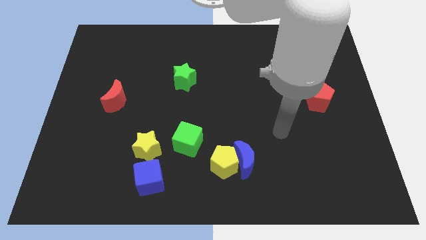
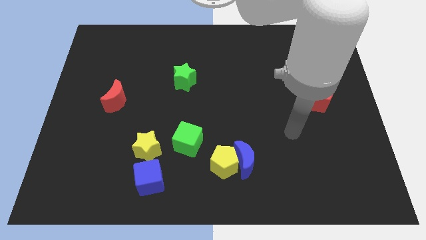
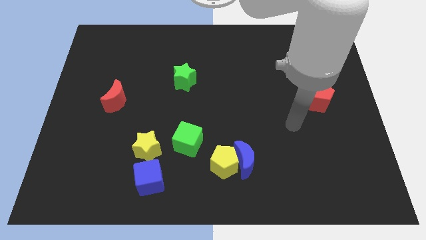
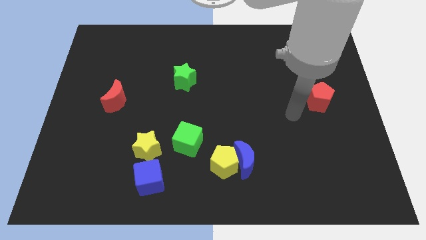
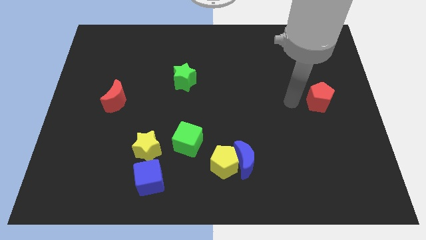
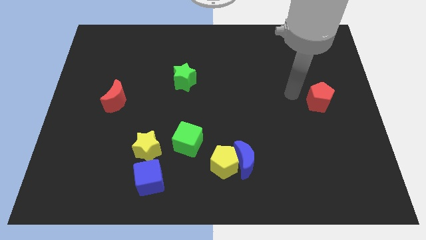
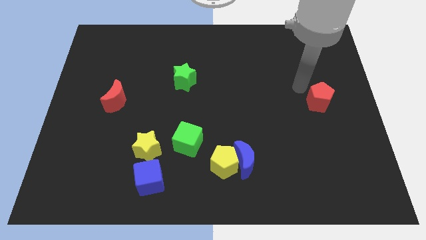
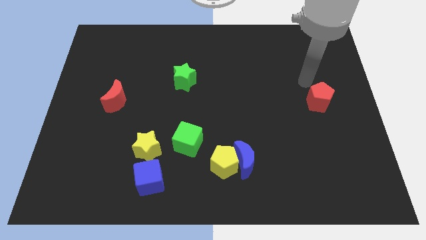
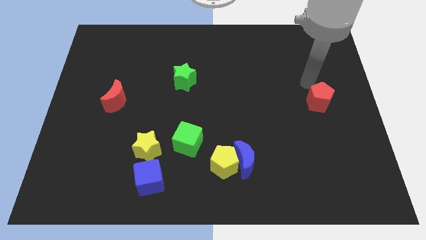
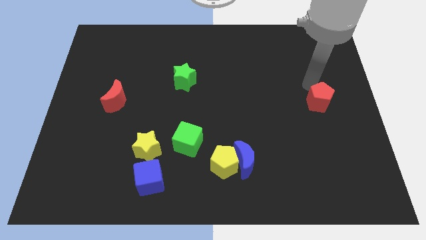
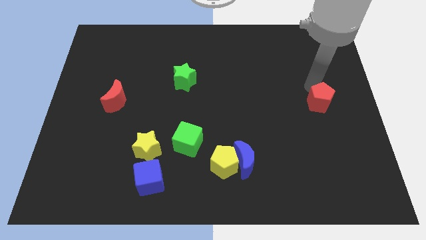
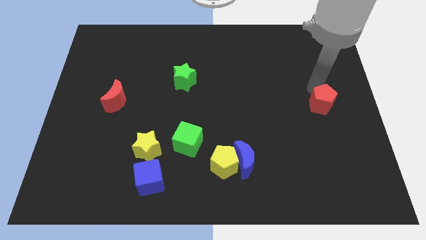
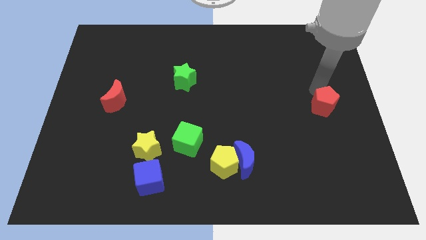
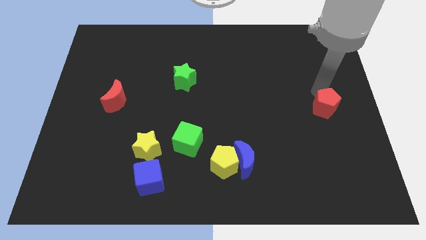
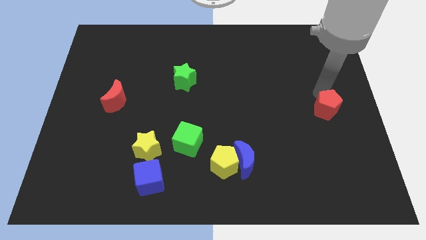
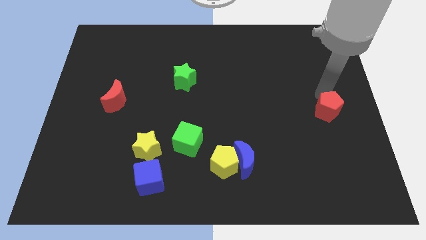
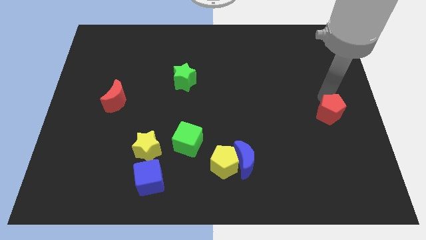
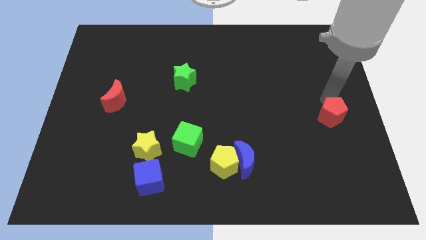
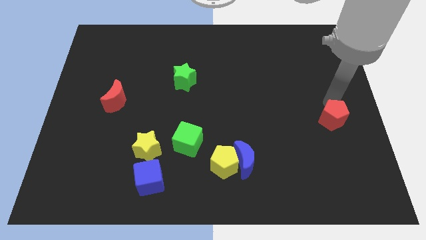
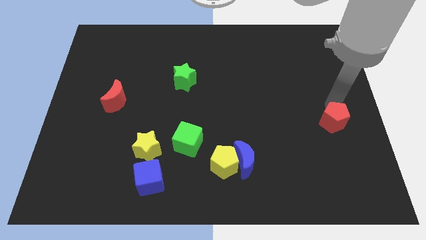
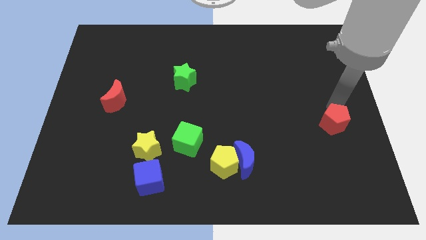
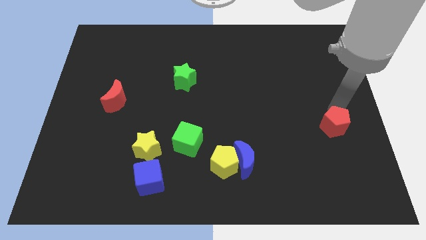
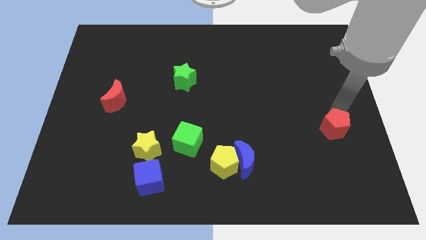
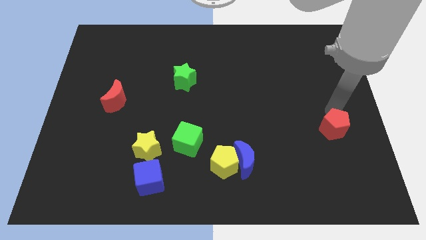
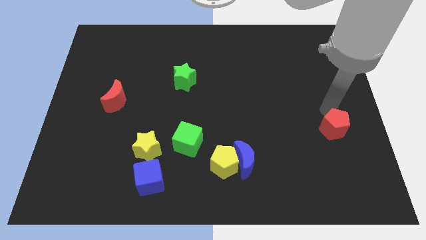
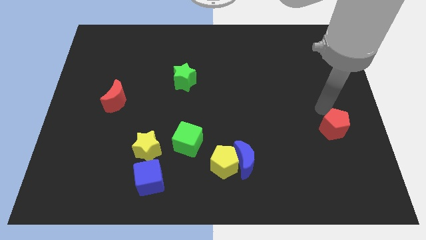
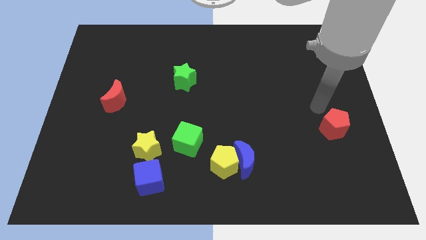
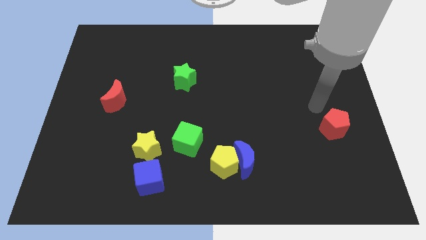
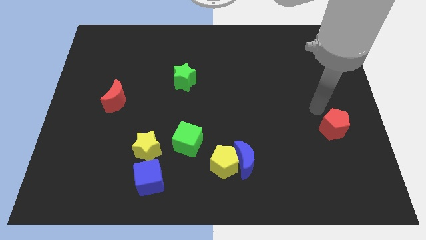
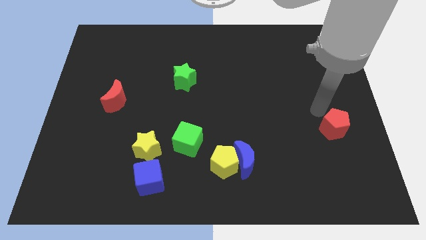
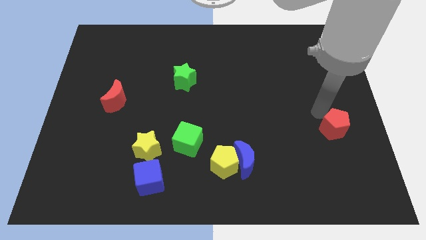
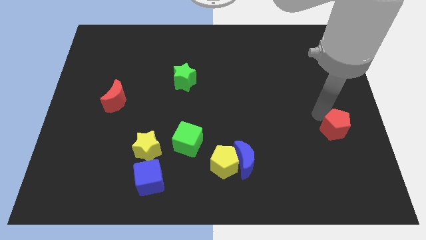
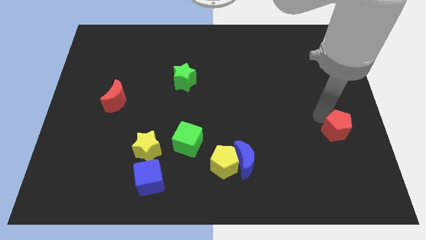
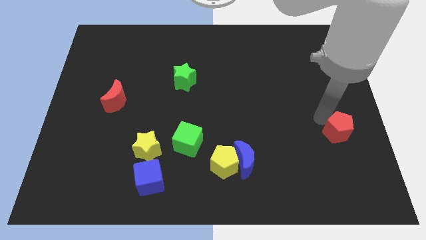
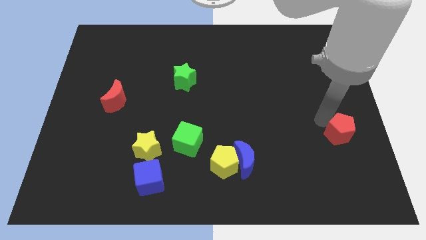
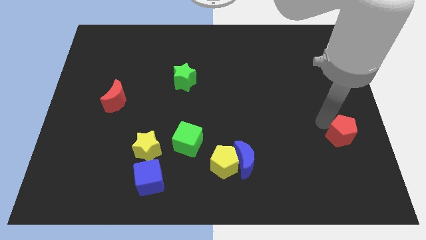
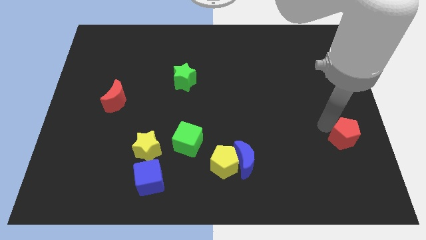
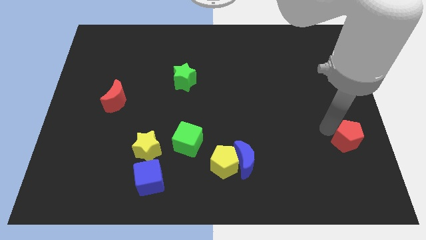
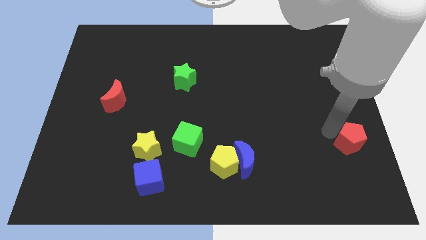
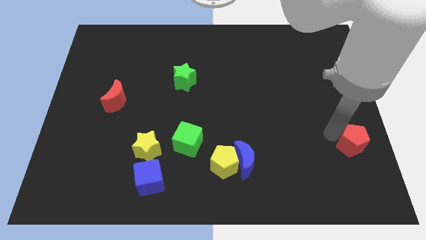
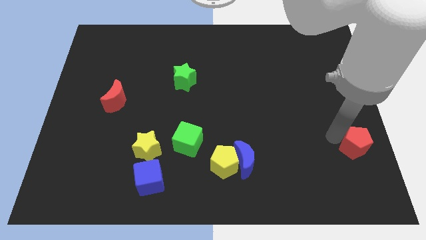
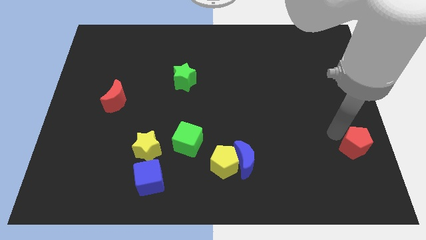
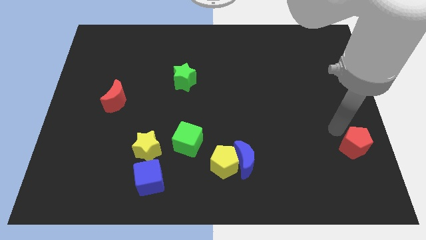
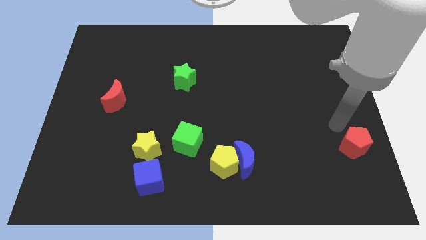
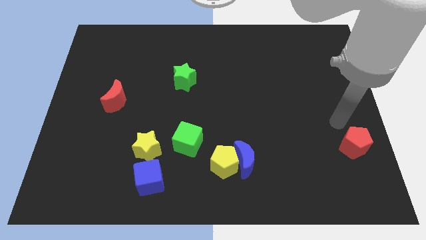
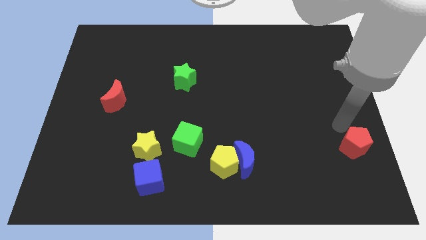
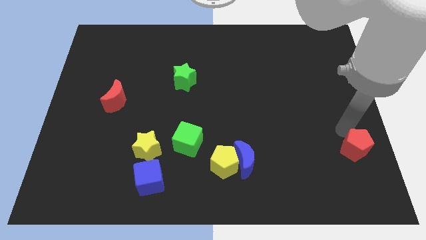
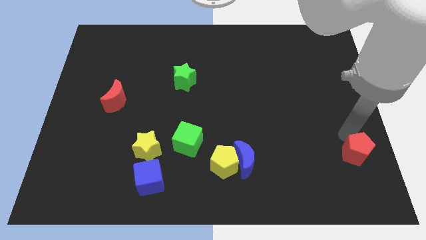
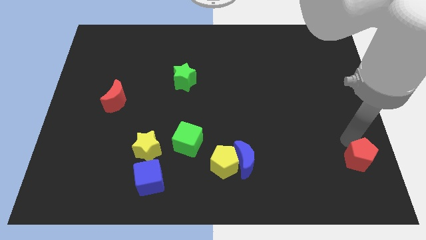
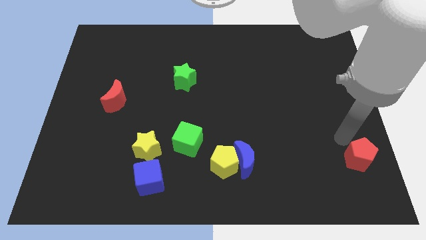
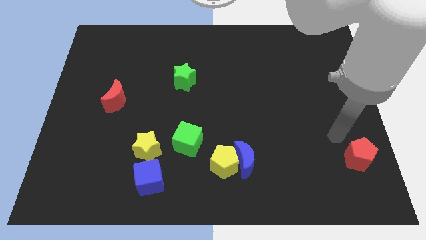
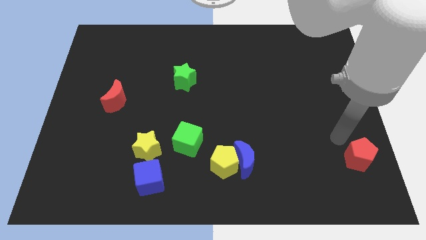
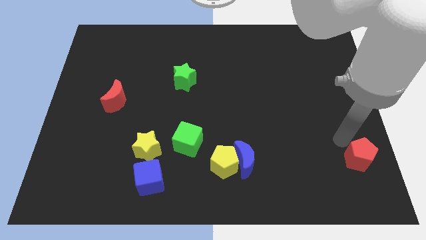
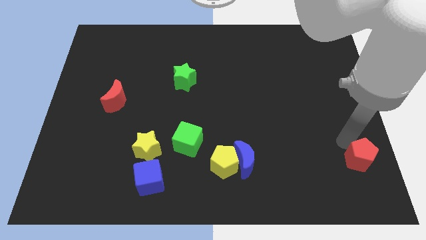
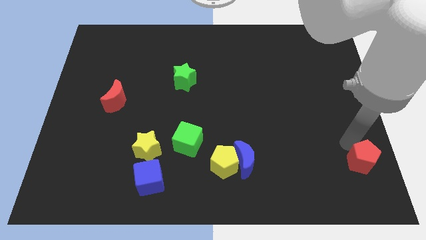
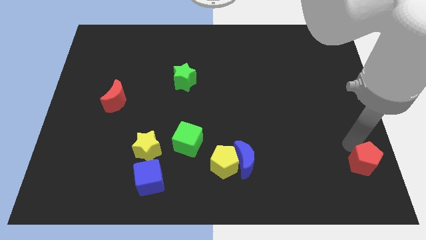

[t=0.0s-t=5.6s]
slide the red pentagon to the bottom right of the board

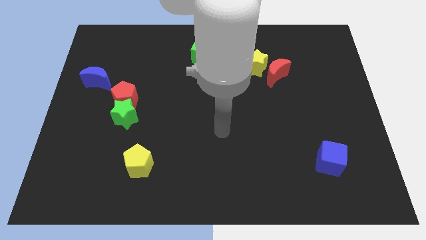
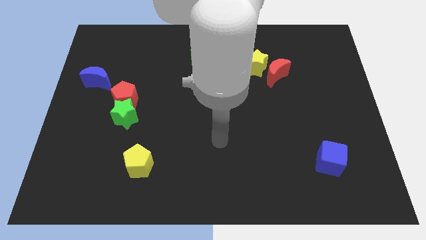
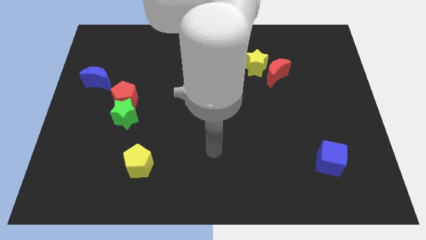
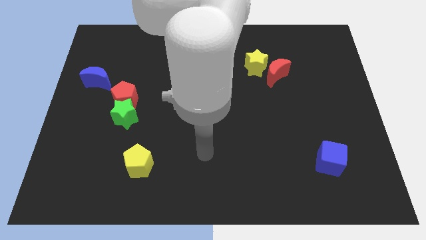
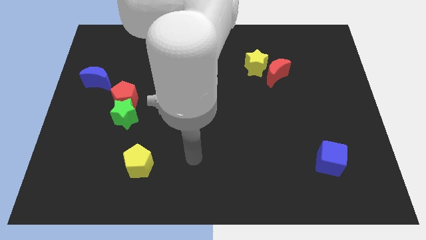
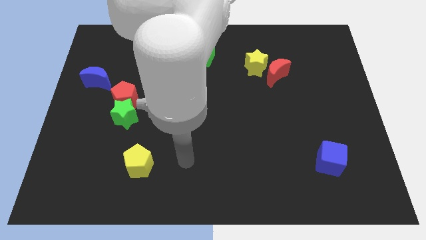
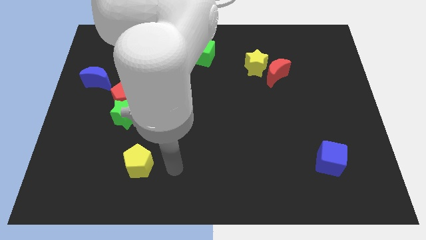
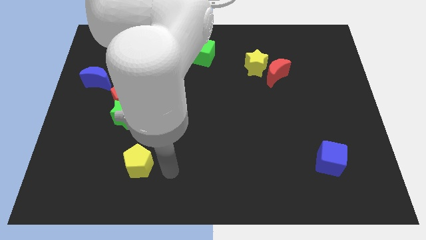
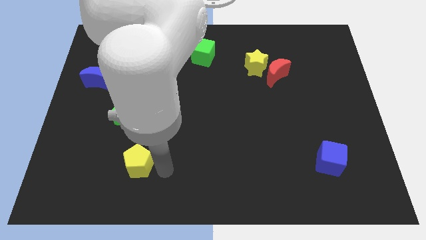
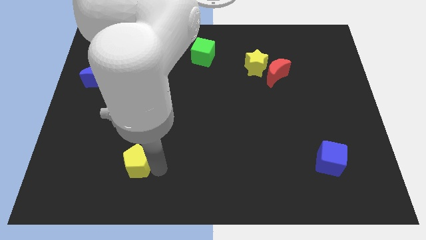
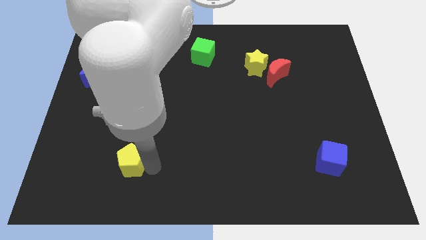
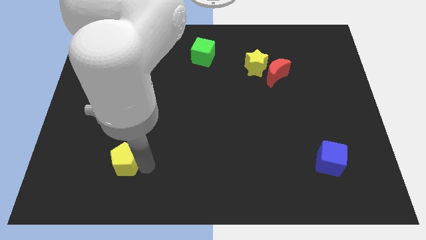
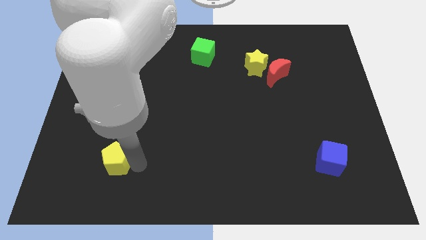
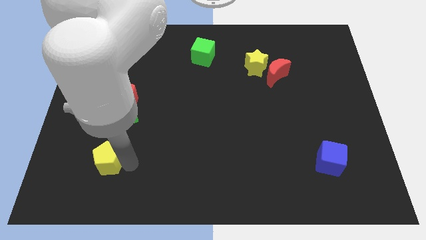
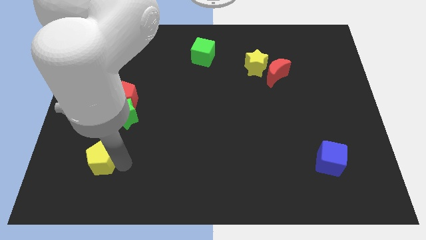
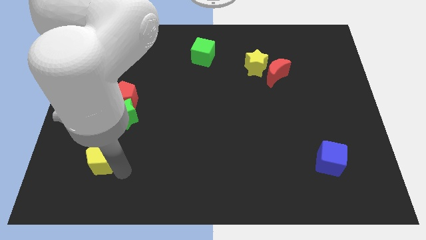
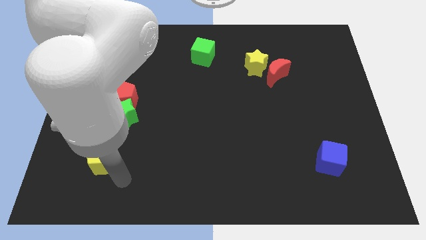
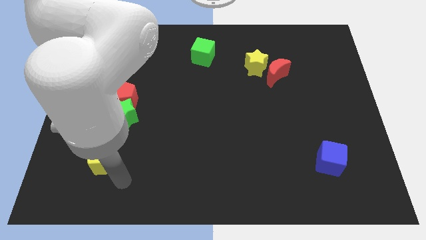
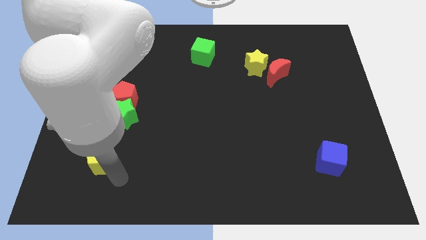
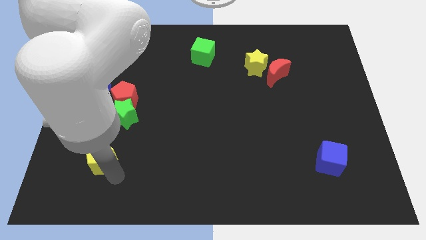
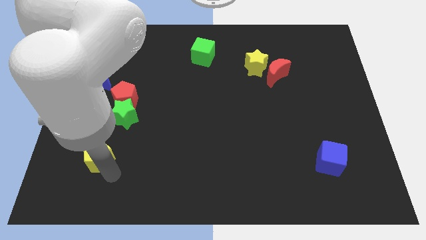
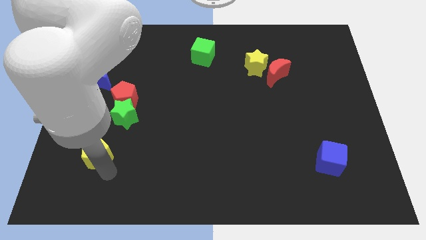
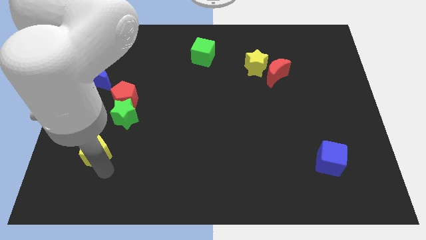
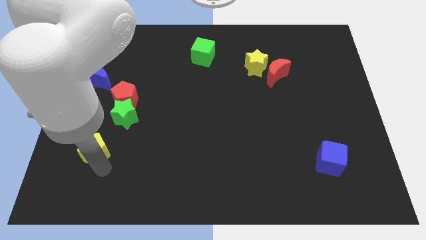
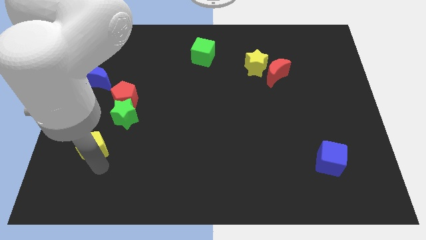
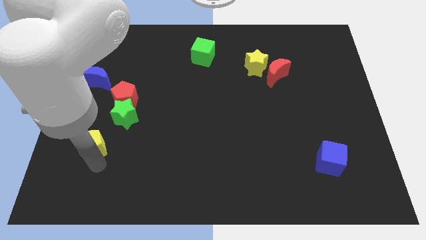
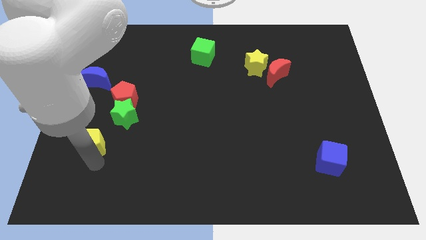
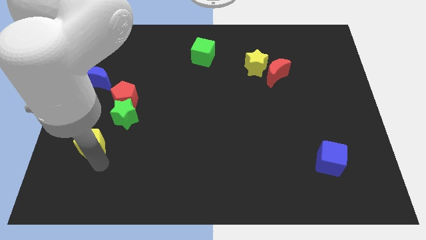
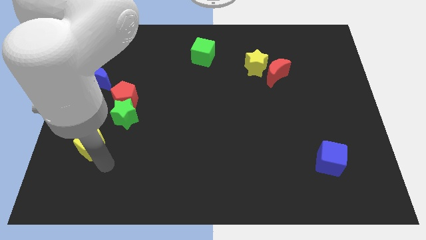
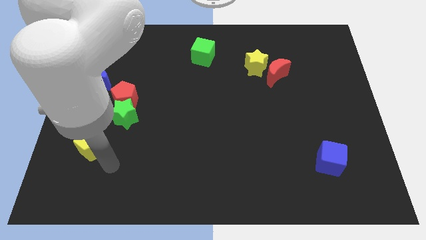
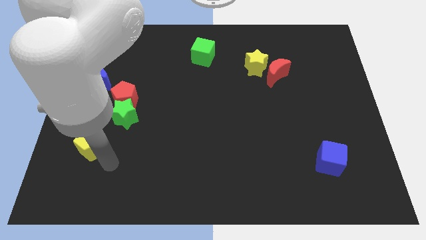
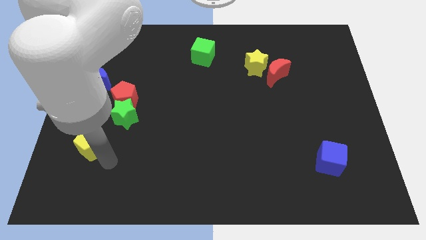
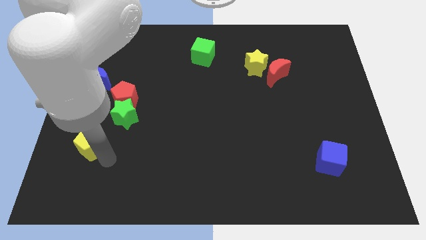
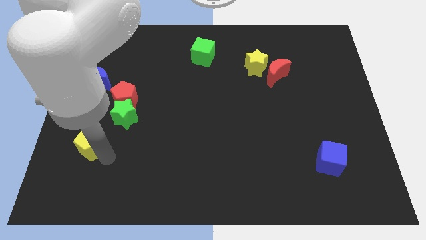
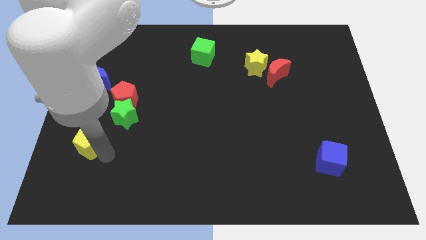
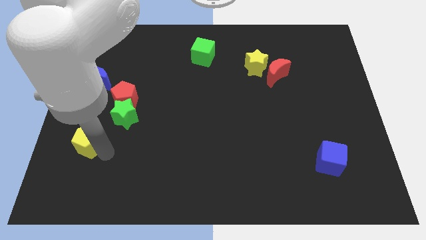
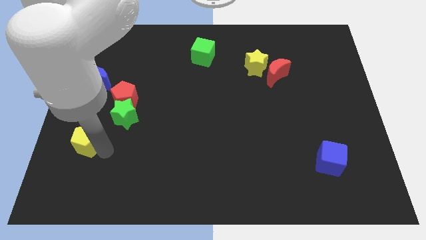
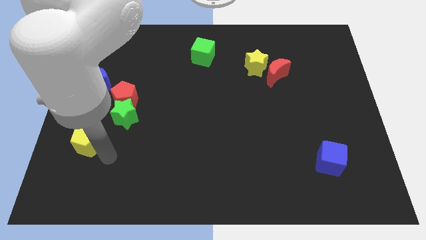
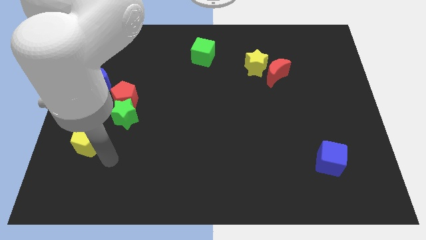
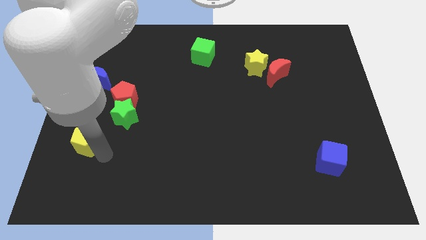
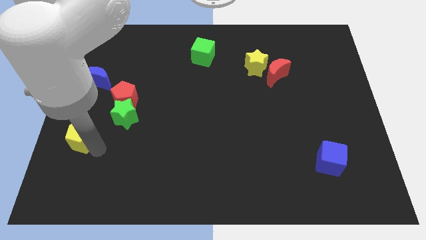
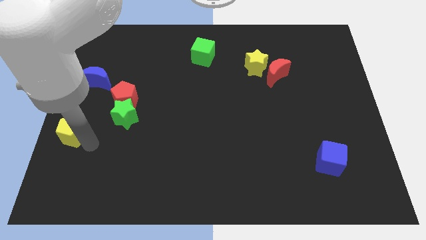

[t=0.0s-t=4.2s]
move the yellow pentagon to the left side
